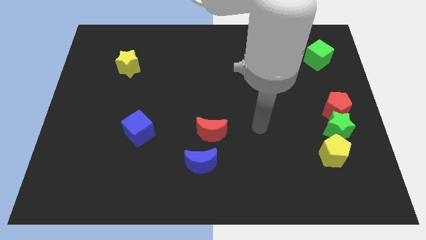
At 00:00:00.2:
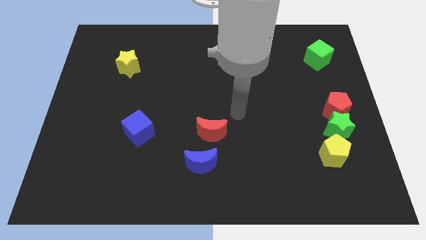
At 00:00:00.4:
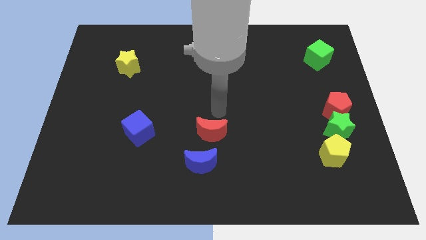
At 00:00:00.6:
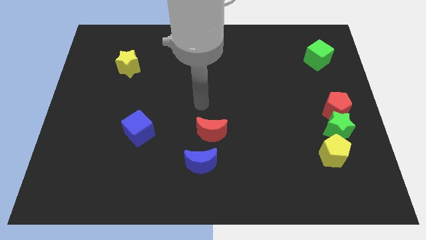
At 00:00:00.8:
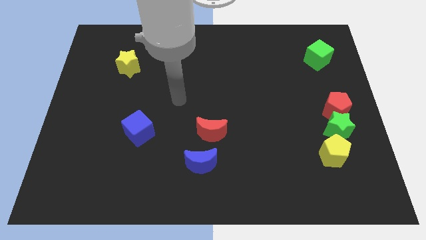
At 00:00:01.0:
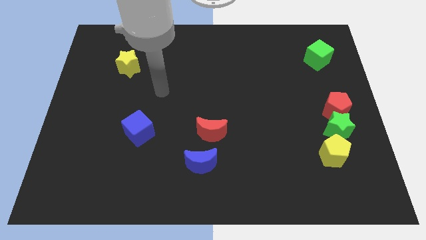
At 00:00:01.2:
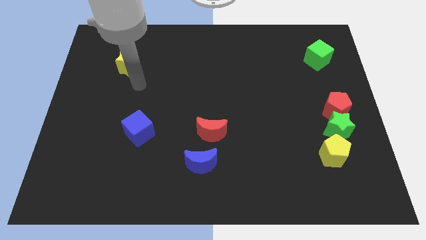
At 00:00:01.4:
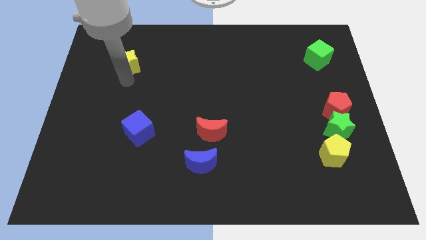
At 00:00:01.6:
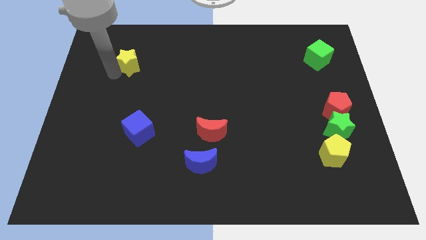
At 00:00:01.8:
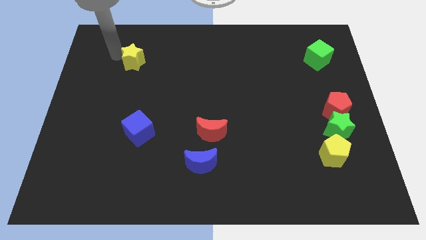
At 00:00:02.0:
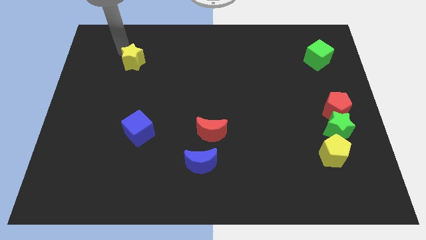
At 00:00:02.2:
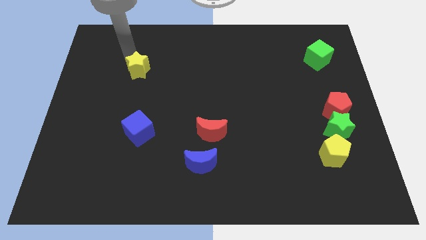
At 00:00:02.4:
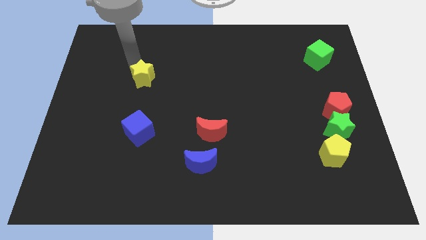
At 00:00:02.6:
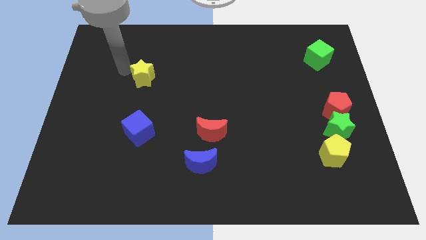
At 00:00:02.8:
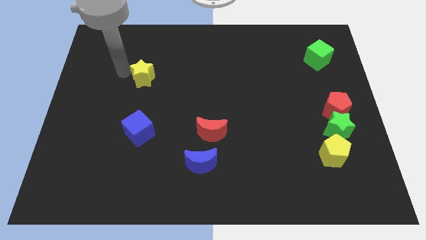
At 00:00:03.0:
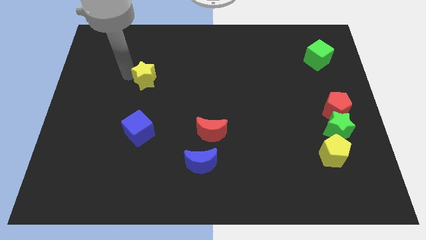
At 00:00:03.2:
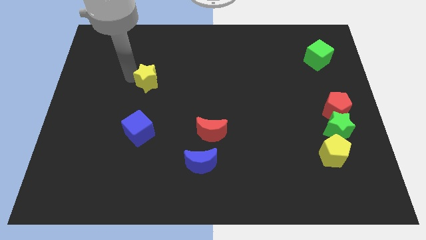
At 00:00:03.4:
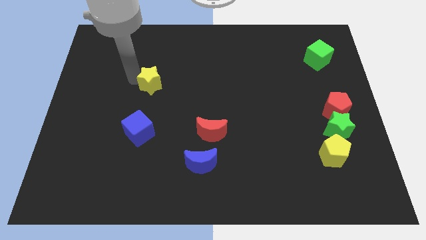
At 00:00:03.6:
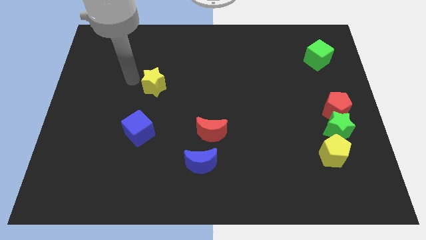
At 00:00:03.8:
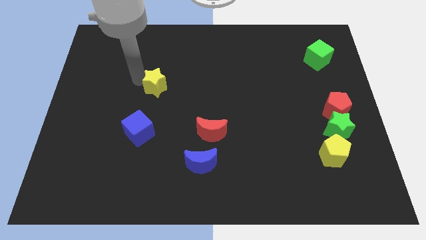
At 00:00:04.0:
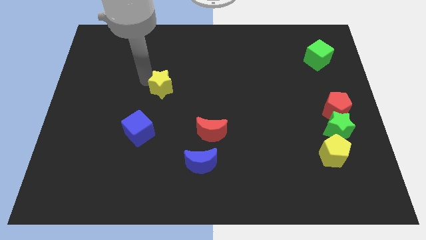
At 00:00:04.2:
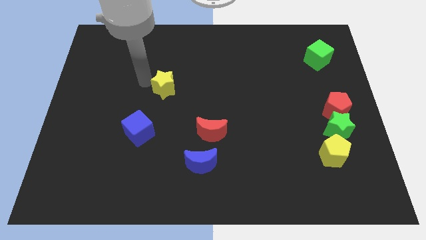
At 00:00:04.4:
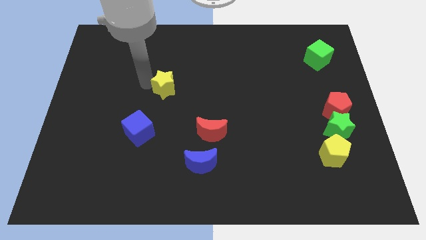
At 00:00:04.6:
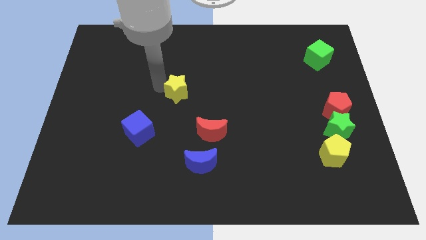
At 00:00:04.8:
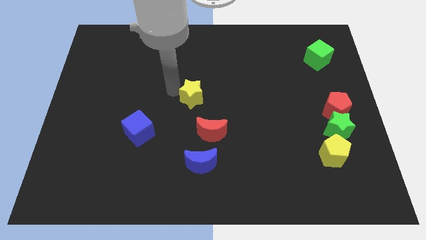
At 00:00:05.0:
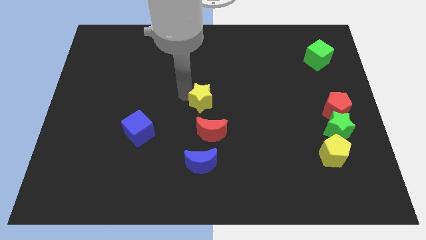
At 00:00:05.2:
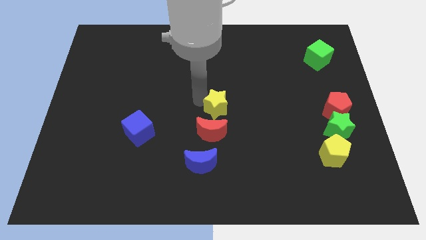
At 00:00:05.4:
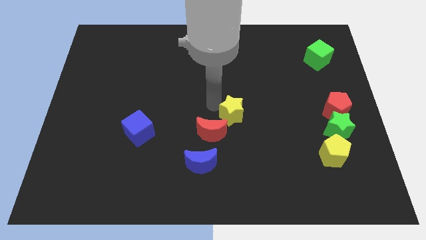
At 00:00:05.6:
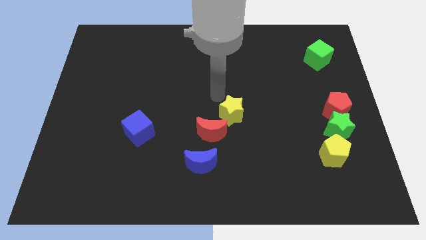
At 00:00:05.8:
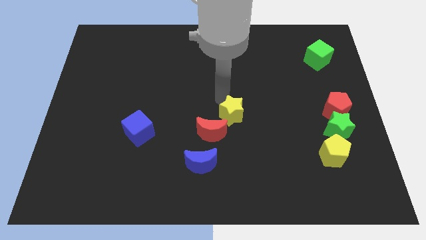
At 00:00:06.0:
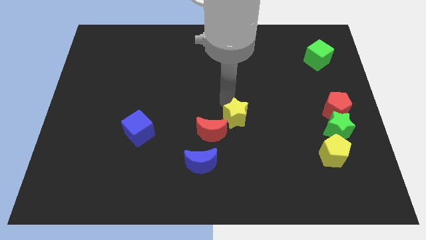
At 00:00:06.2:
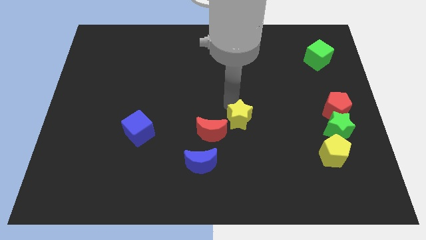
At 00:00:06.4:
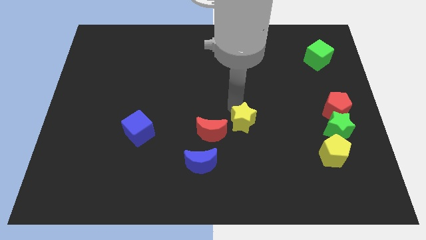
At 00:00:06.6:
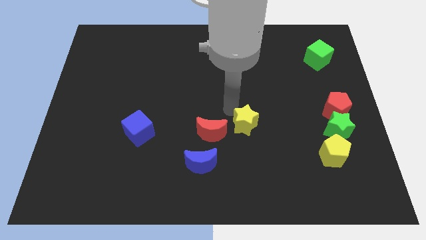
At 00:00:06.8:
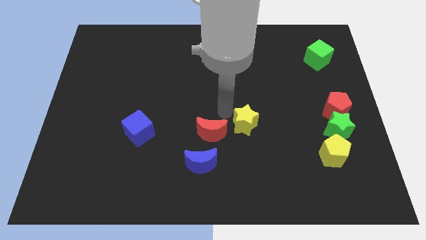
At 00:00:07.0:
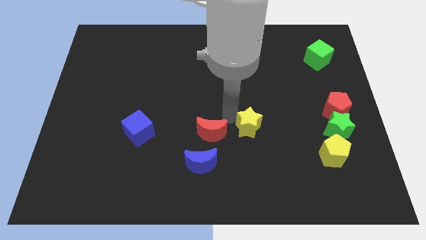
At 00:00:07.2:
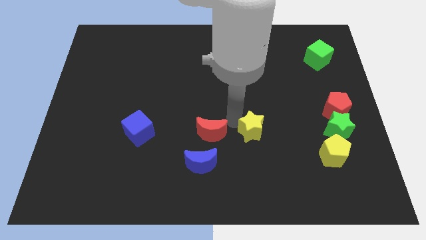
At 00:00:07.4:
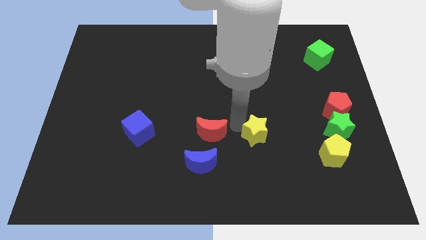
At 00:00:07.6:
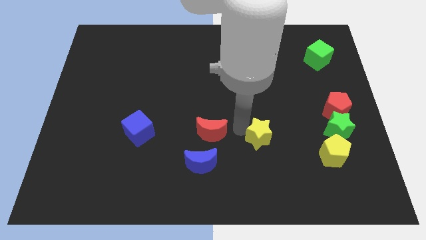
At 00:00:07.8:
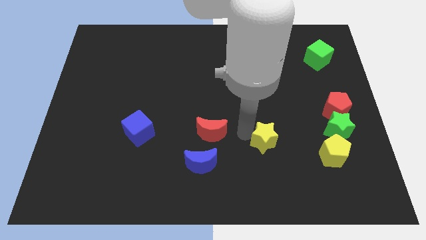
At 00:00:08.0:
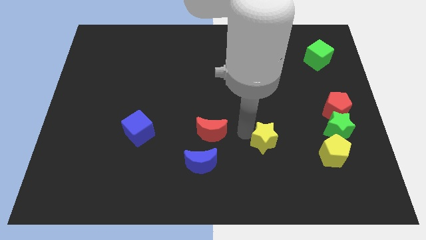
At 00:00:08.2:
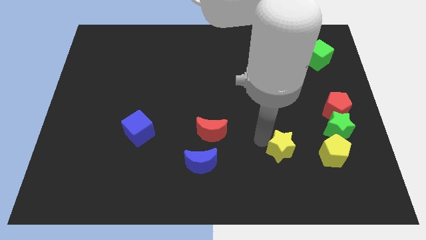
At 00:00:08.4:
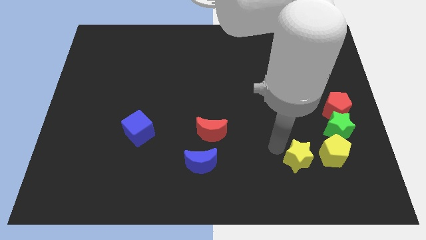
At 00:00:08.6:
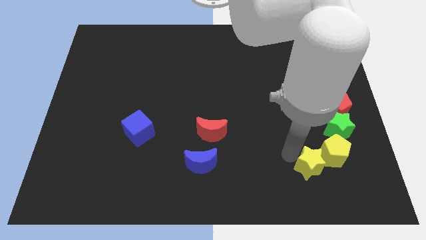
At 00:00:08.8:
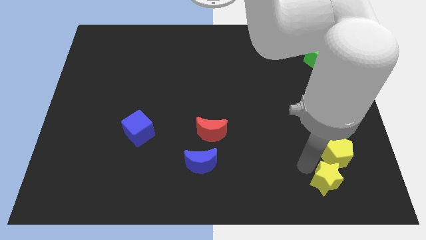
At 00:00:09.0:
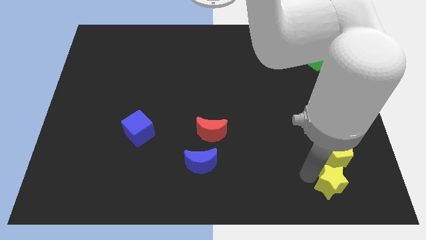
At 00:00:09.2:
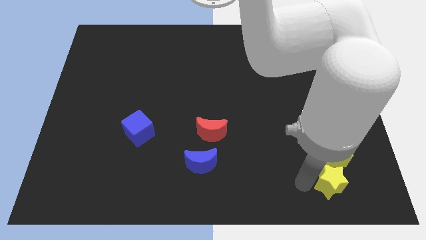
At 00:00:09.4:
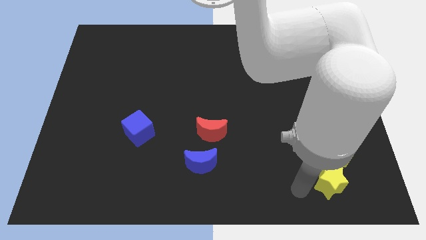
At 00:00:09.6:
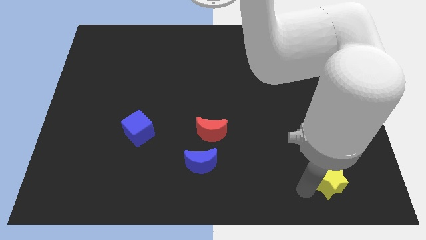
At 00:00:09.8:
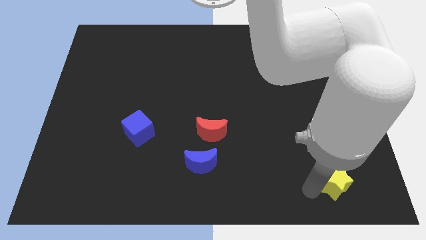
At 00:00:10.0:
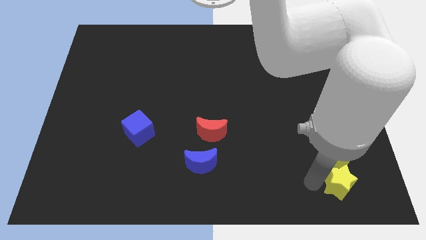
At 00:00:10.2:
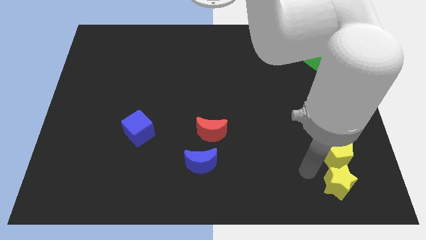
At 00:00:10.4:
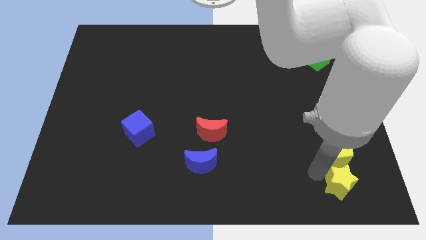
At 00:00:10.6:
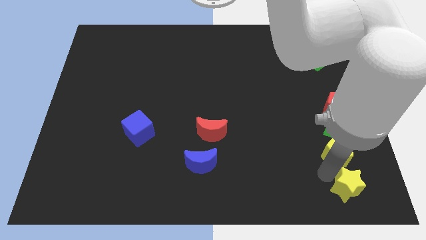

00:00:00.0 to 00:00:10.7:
slide the yellow star to the bottom right

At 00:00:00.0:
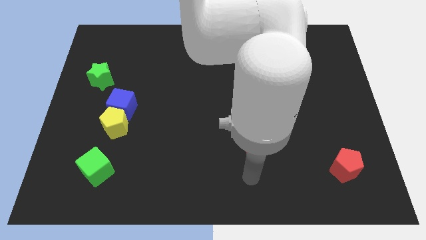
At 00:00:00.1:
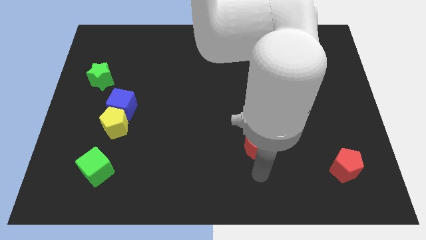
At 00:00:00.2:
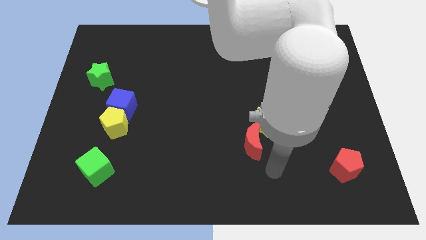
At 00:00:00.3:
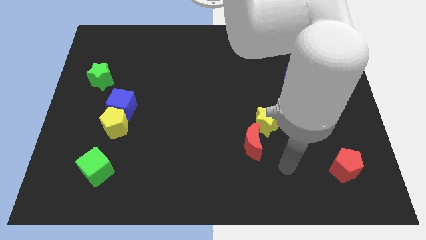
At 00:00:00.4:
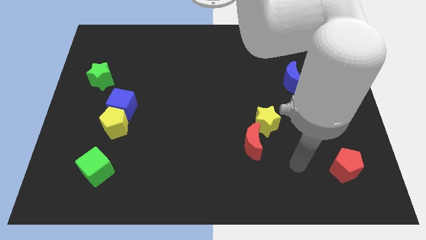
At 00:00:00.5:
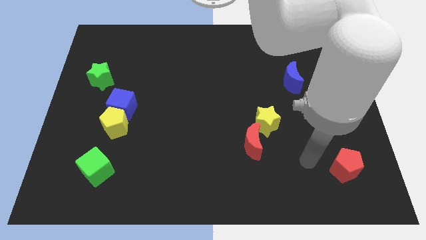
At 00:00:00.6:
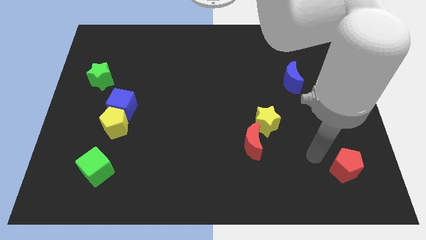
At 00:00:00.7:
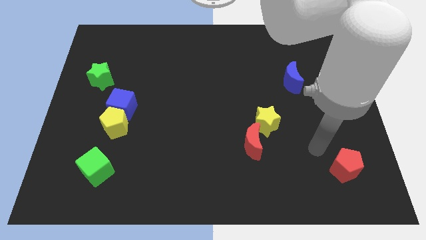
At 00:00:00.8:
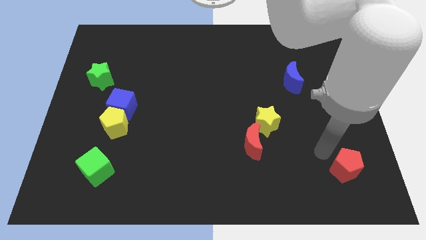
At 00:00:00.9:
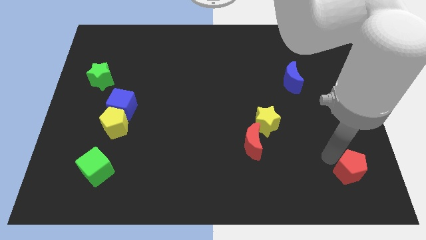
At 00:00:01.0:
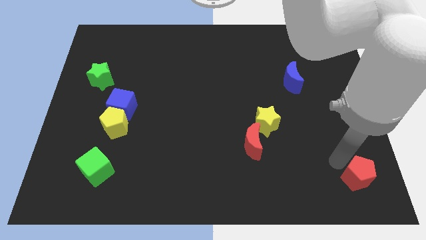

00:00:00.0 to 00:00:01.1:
push the red pentagon to the bottom right of the board
